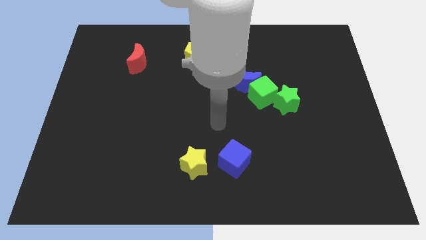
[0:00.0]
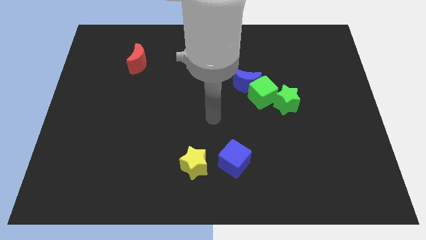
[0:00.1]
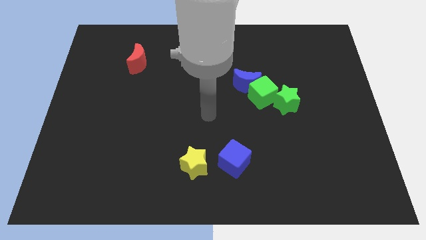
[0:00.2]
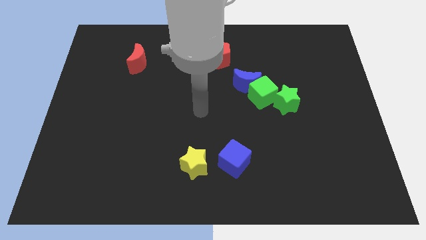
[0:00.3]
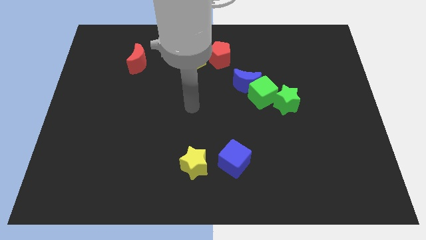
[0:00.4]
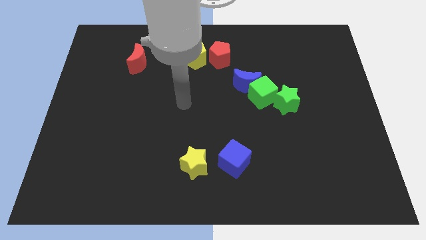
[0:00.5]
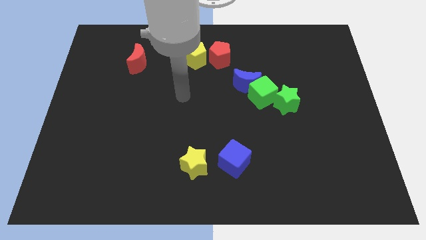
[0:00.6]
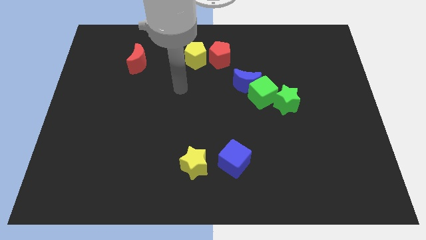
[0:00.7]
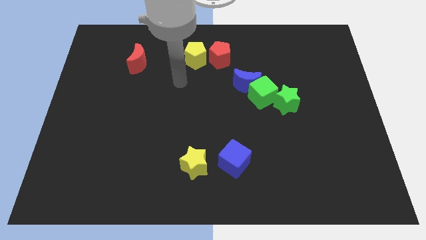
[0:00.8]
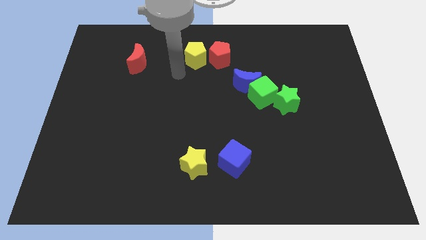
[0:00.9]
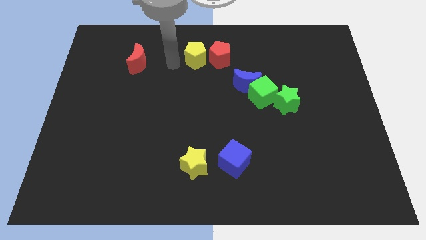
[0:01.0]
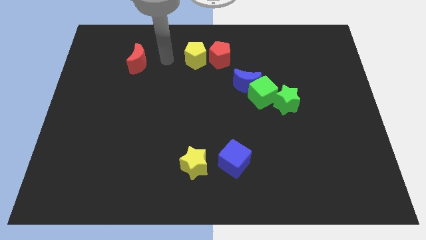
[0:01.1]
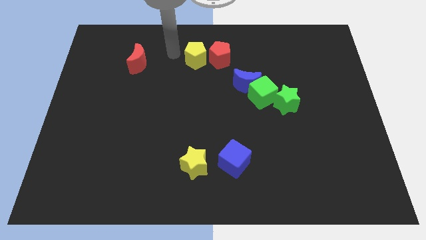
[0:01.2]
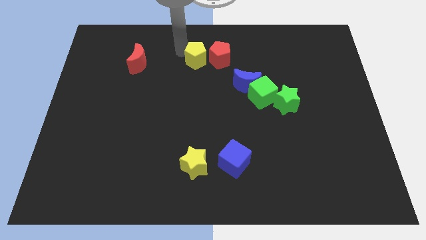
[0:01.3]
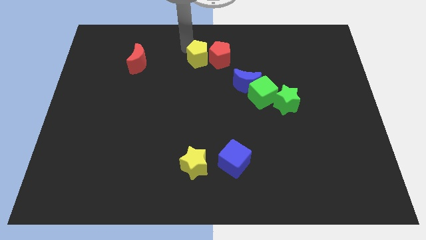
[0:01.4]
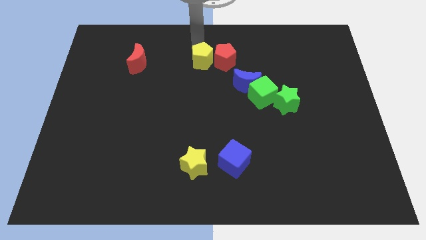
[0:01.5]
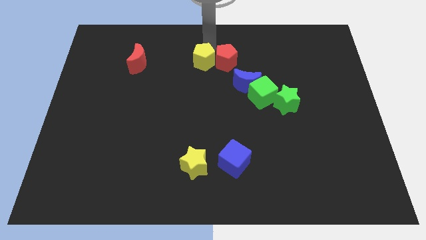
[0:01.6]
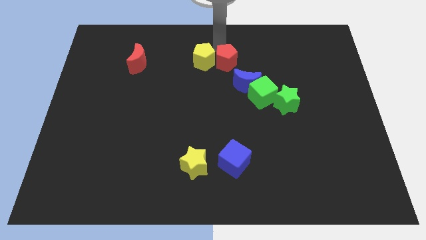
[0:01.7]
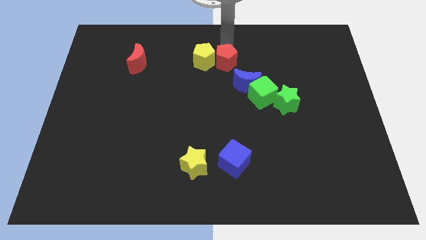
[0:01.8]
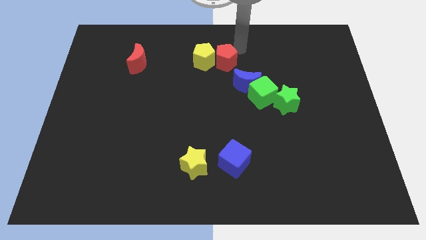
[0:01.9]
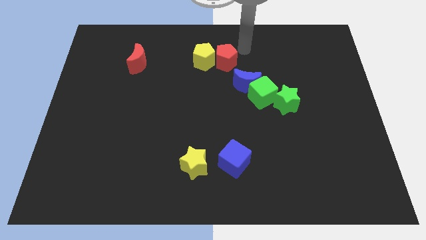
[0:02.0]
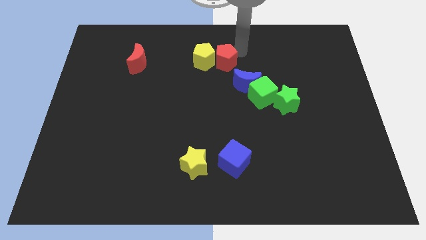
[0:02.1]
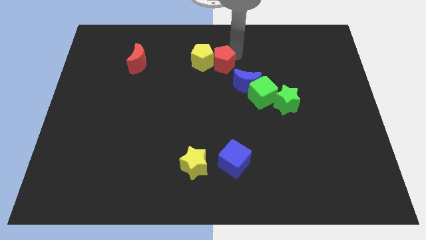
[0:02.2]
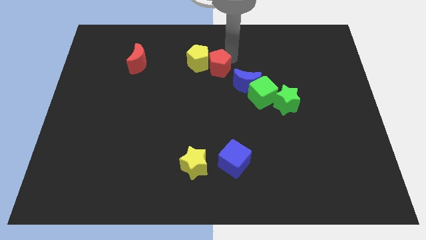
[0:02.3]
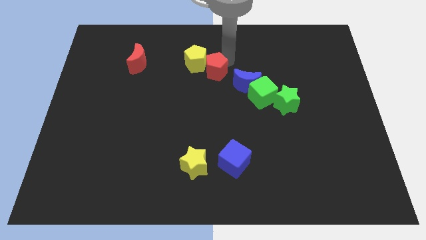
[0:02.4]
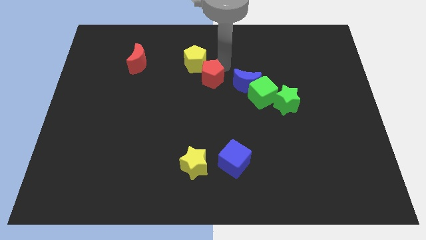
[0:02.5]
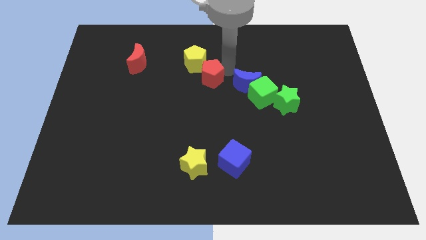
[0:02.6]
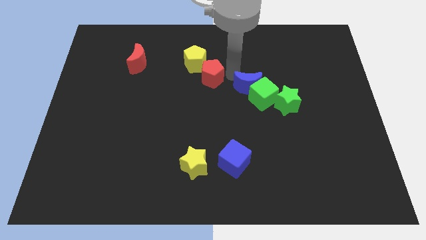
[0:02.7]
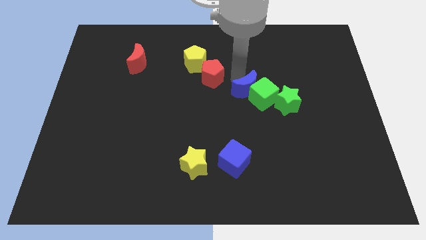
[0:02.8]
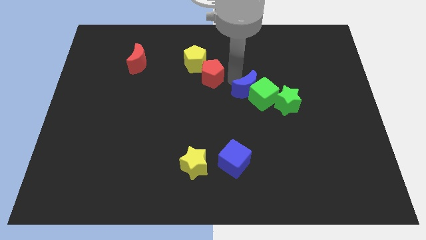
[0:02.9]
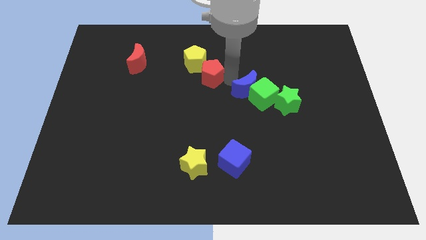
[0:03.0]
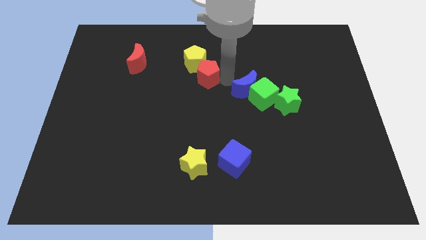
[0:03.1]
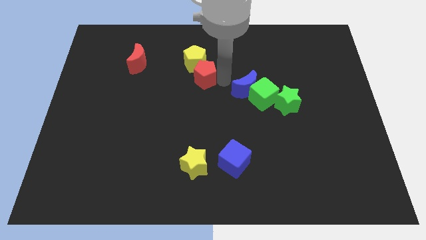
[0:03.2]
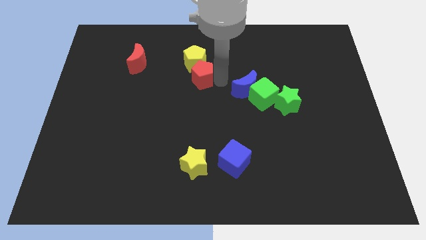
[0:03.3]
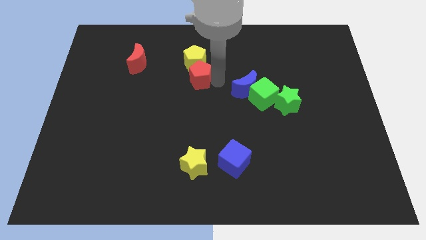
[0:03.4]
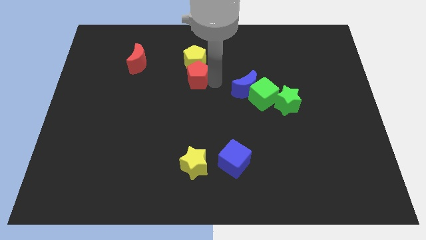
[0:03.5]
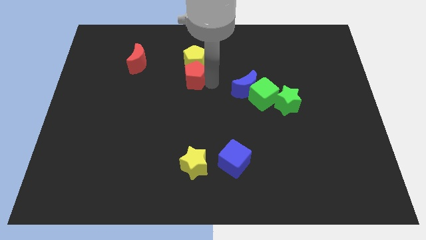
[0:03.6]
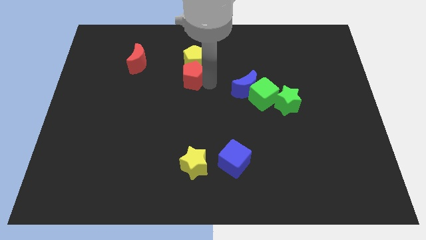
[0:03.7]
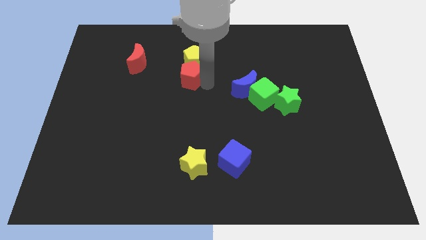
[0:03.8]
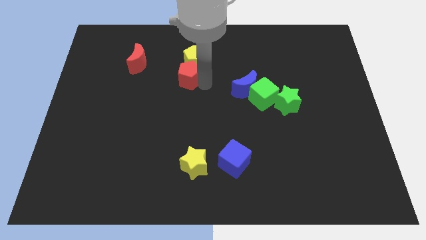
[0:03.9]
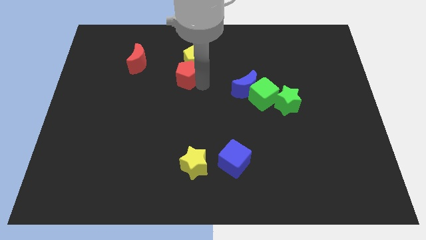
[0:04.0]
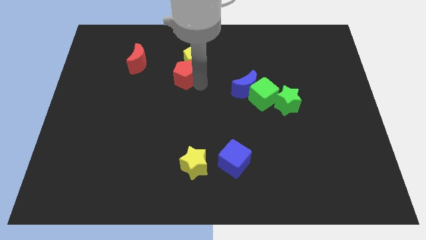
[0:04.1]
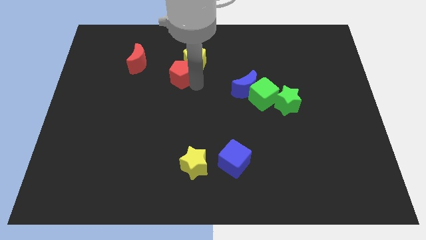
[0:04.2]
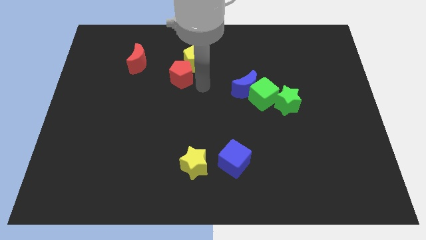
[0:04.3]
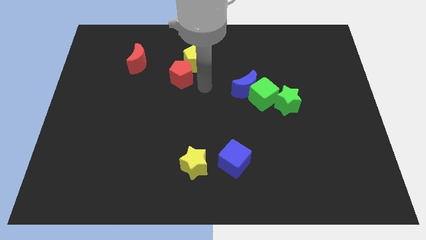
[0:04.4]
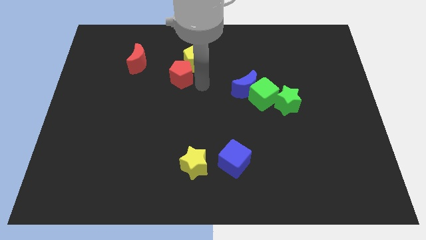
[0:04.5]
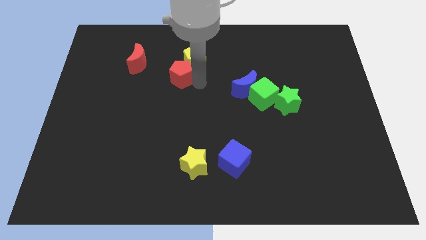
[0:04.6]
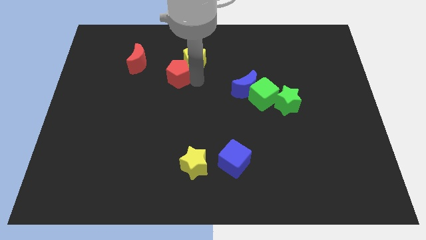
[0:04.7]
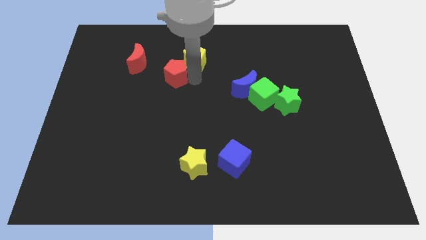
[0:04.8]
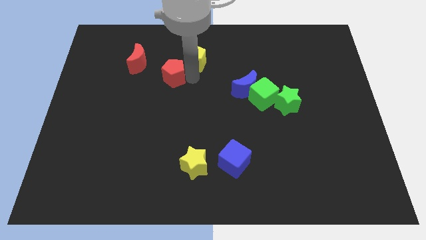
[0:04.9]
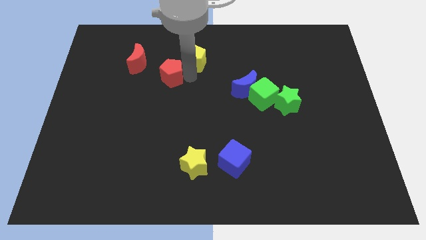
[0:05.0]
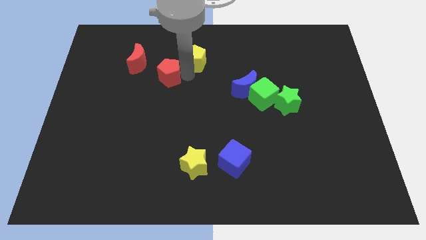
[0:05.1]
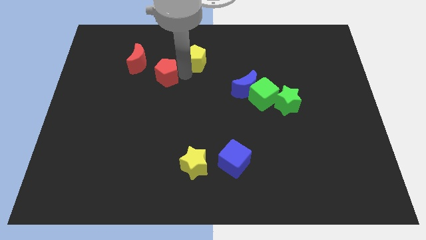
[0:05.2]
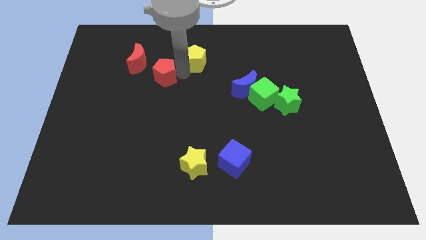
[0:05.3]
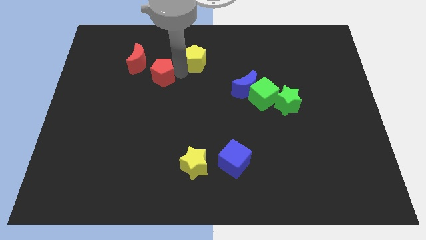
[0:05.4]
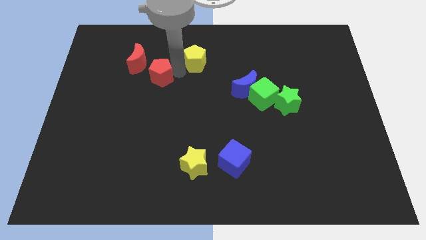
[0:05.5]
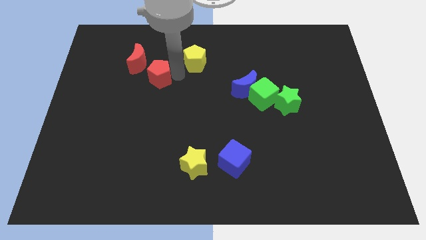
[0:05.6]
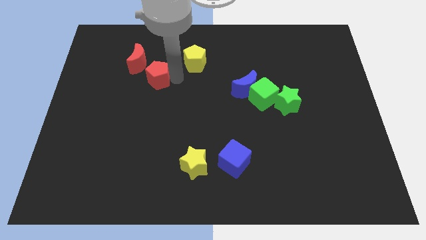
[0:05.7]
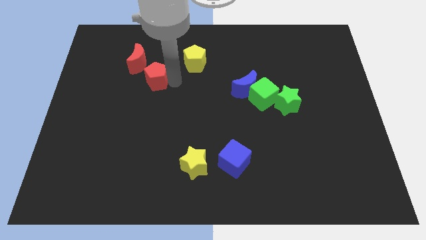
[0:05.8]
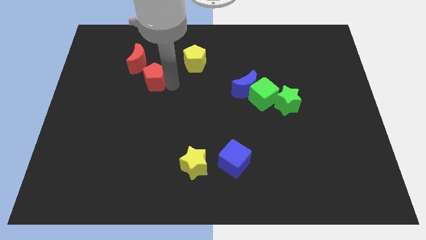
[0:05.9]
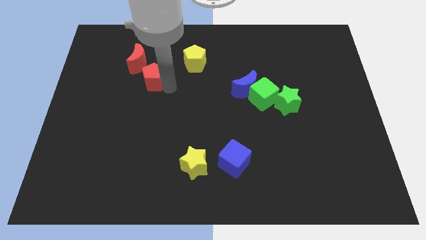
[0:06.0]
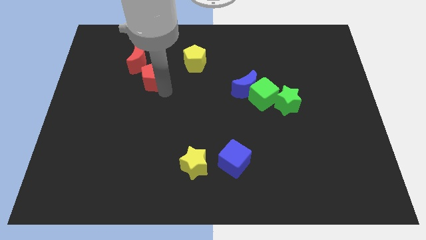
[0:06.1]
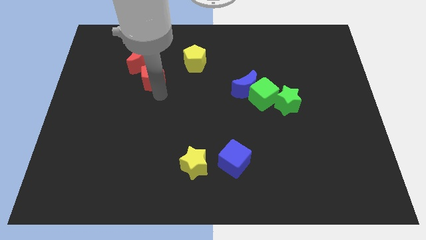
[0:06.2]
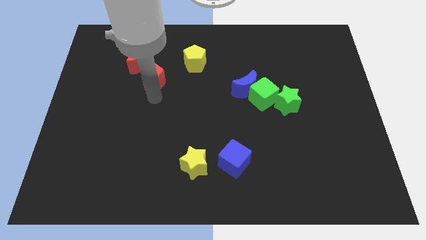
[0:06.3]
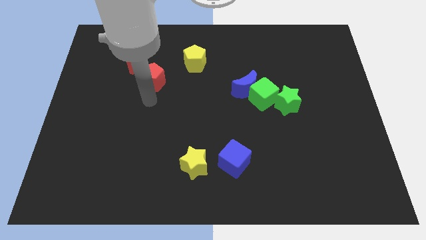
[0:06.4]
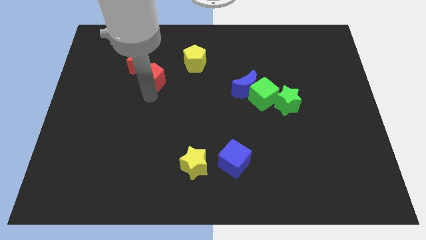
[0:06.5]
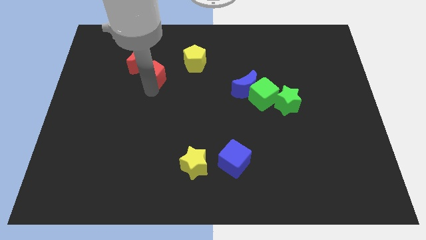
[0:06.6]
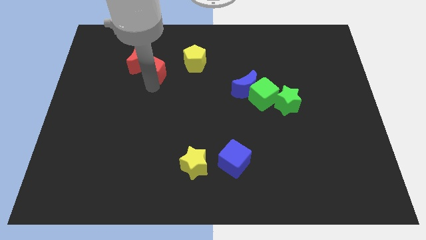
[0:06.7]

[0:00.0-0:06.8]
push the red pentagon to the red moon

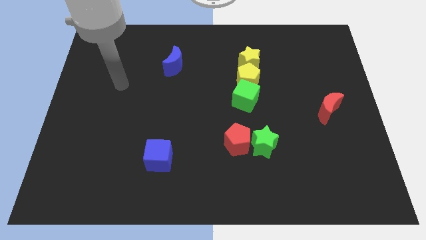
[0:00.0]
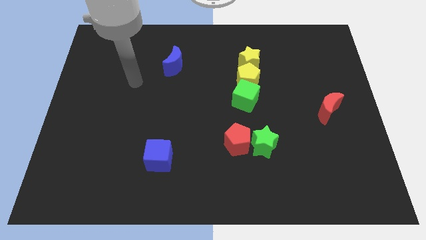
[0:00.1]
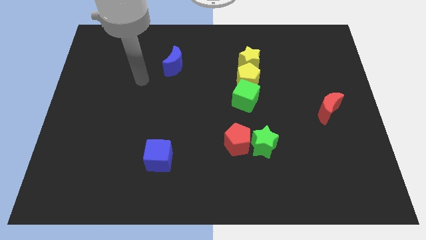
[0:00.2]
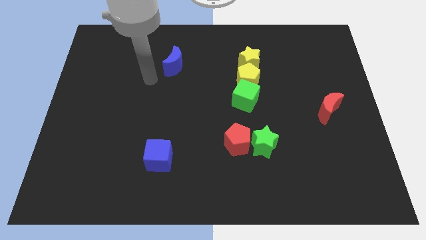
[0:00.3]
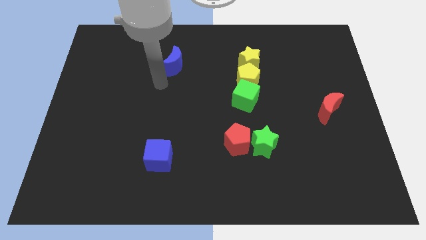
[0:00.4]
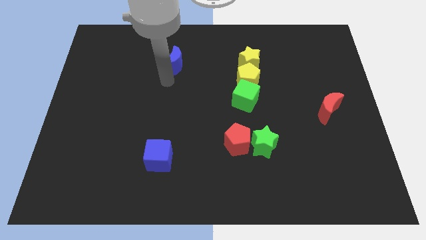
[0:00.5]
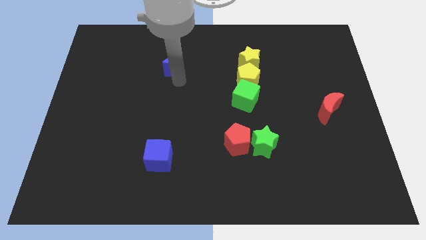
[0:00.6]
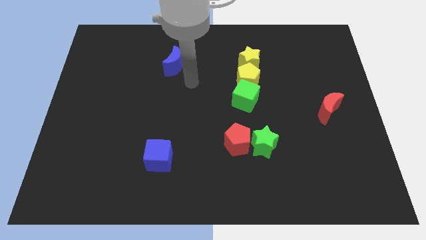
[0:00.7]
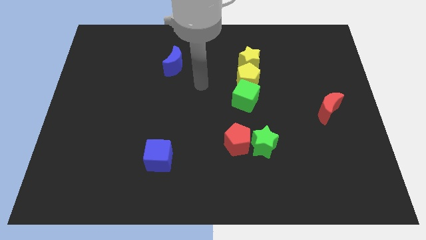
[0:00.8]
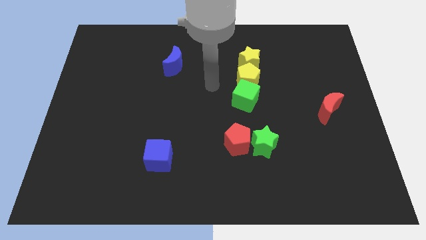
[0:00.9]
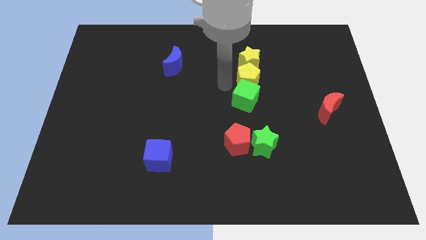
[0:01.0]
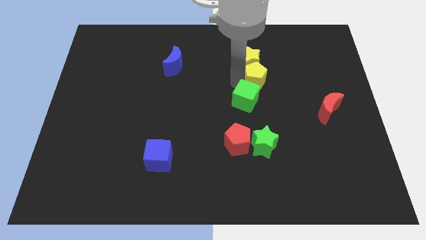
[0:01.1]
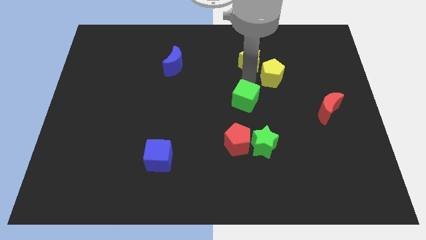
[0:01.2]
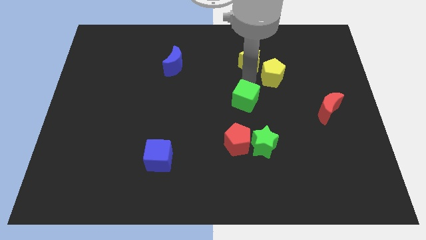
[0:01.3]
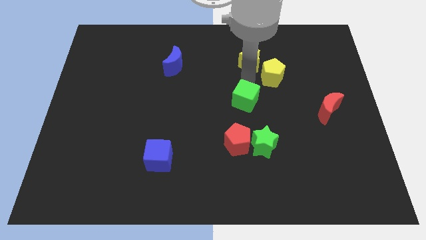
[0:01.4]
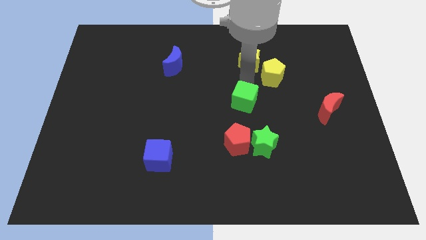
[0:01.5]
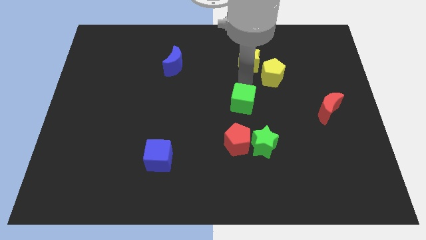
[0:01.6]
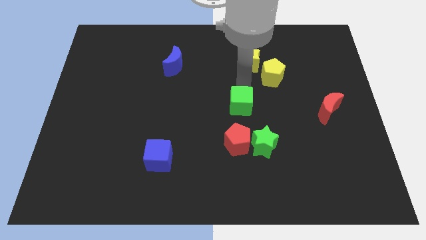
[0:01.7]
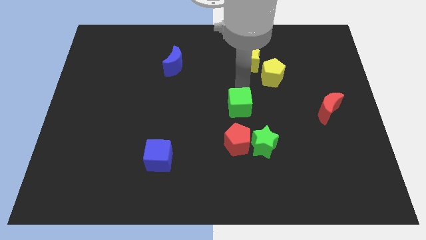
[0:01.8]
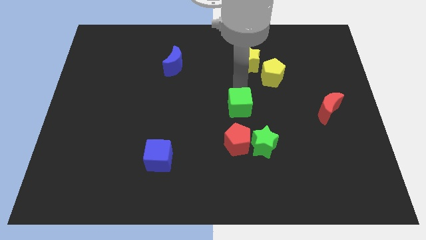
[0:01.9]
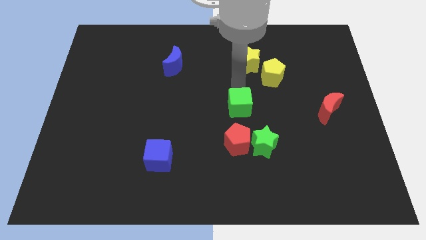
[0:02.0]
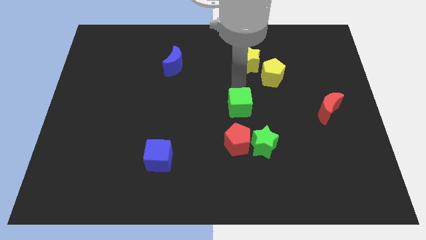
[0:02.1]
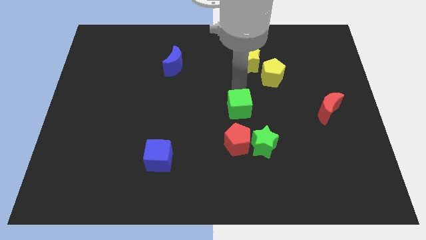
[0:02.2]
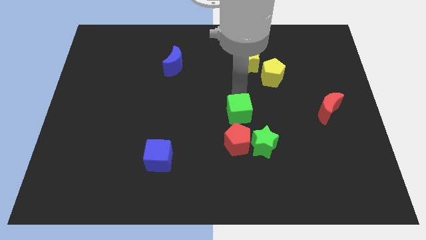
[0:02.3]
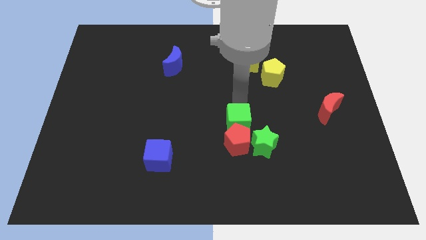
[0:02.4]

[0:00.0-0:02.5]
put the green cube close to the red pentagon
